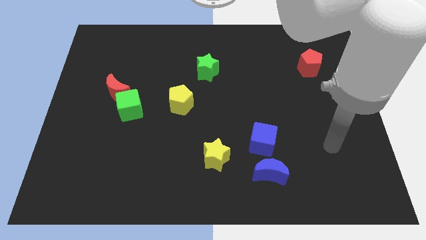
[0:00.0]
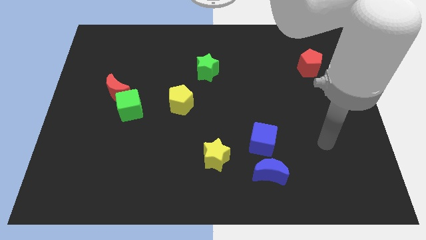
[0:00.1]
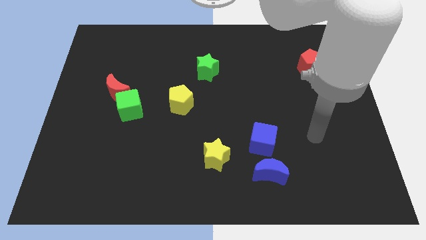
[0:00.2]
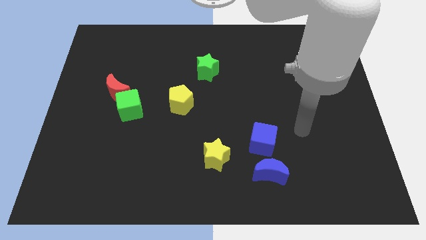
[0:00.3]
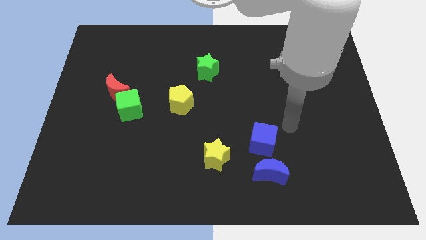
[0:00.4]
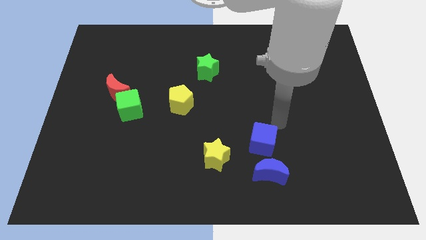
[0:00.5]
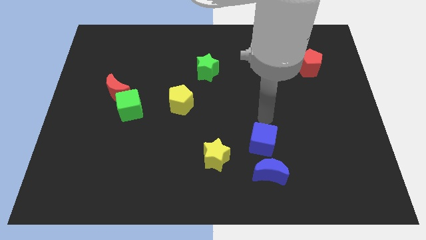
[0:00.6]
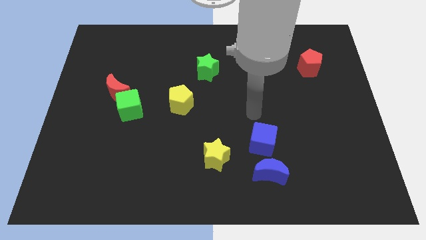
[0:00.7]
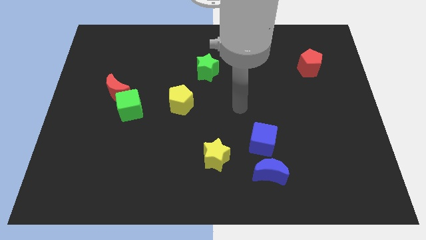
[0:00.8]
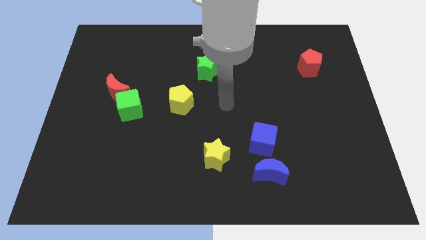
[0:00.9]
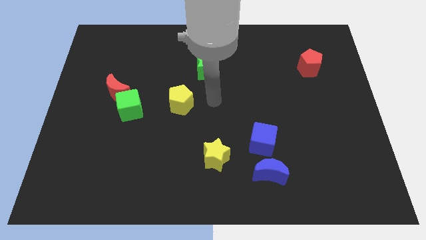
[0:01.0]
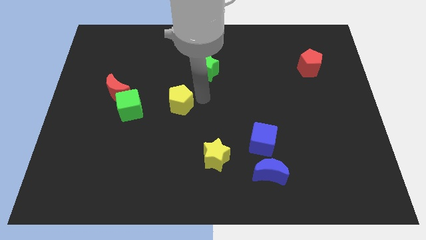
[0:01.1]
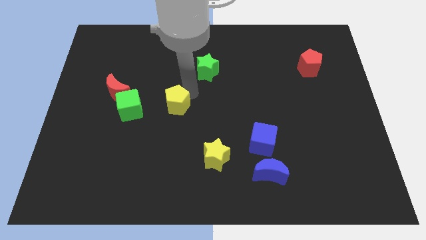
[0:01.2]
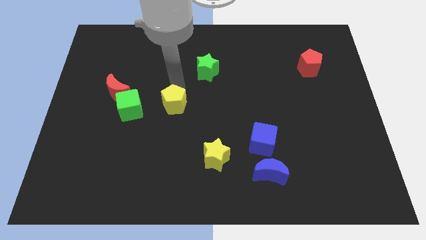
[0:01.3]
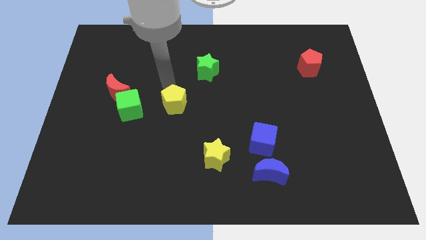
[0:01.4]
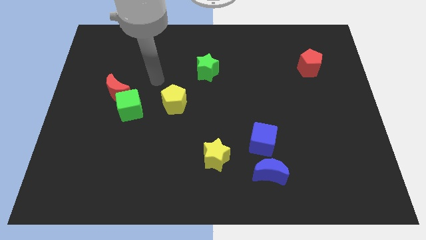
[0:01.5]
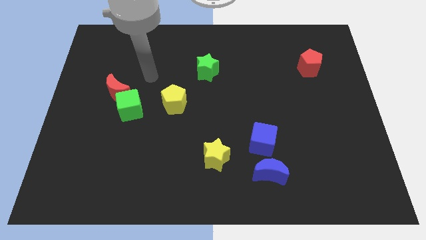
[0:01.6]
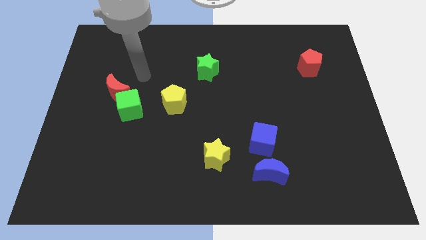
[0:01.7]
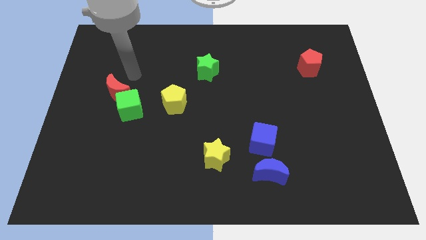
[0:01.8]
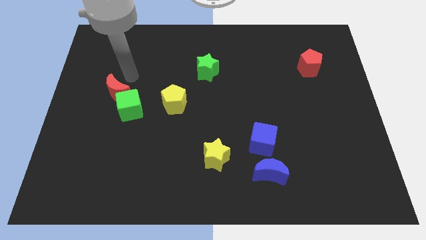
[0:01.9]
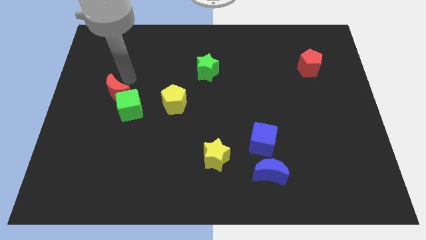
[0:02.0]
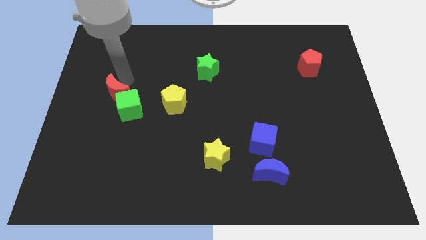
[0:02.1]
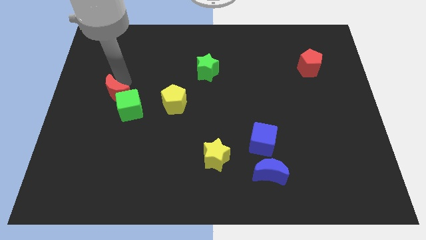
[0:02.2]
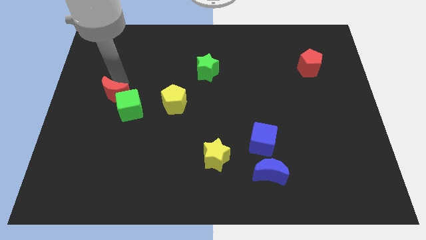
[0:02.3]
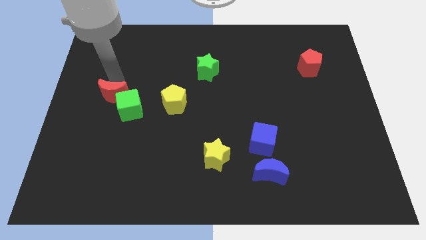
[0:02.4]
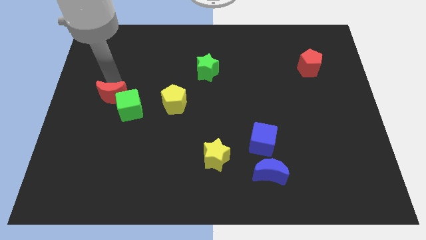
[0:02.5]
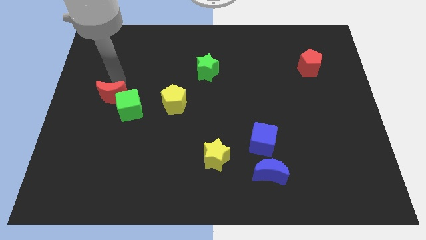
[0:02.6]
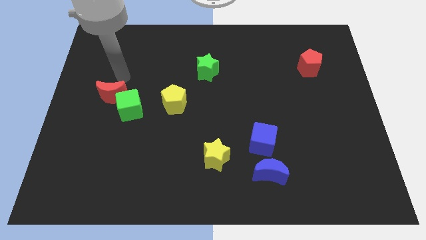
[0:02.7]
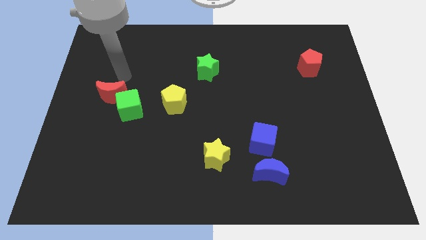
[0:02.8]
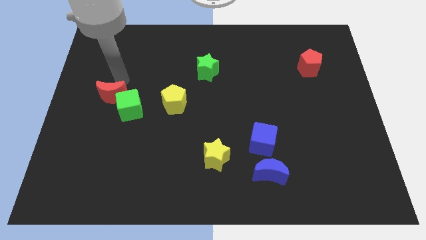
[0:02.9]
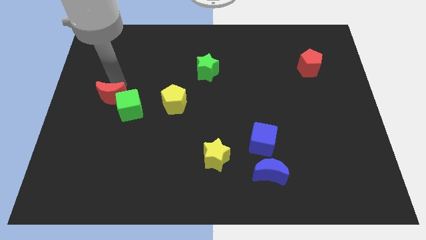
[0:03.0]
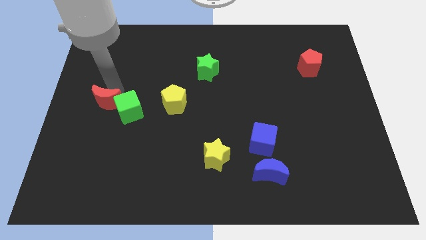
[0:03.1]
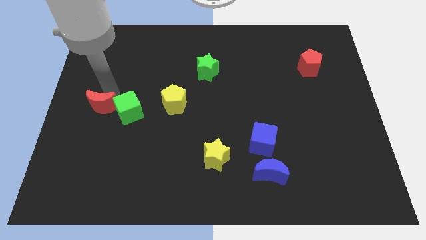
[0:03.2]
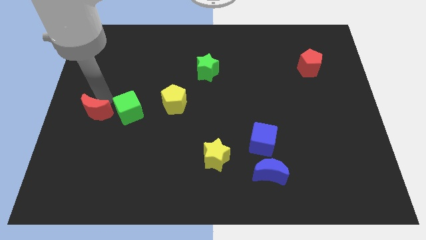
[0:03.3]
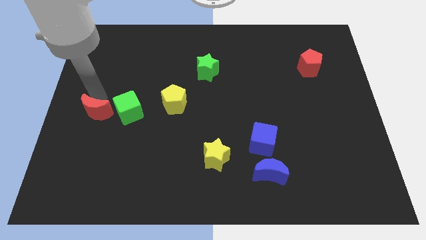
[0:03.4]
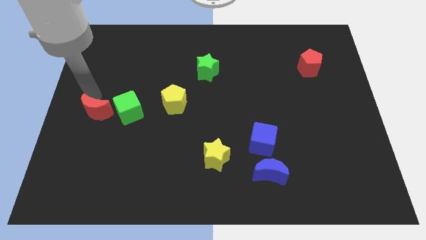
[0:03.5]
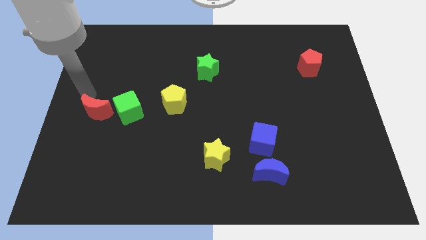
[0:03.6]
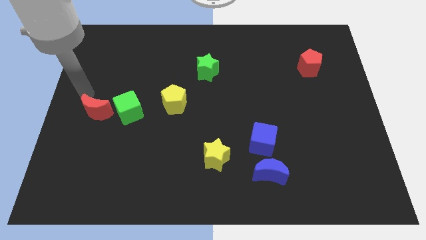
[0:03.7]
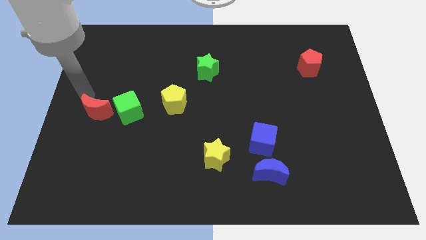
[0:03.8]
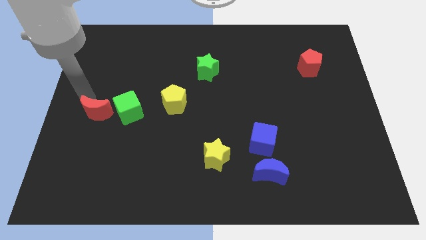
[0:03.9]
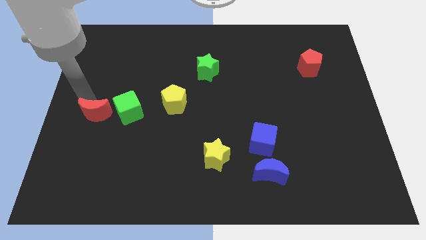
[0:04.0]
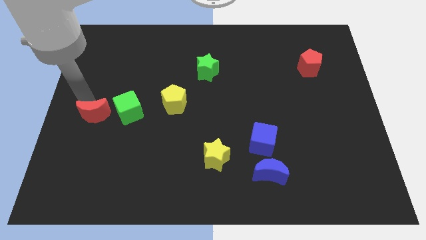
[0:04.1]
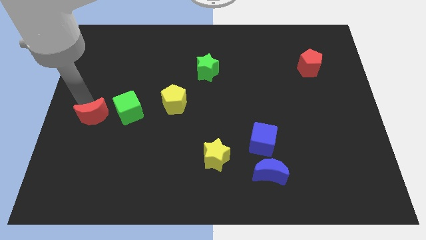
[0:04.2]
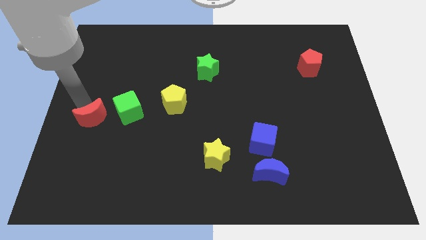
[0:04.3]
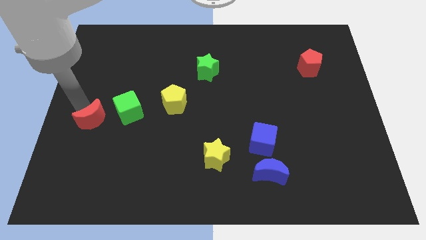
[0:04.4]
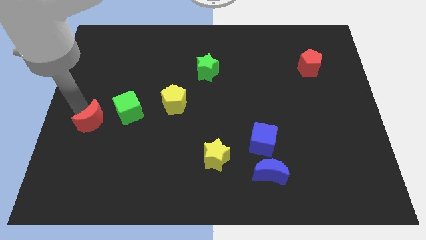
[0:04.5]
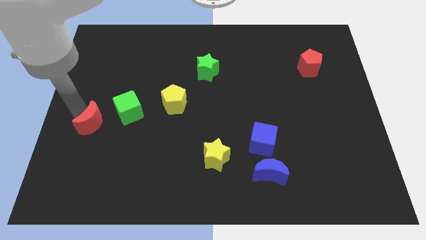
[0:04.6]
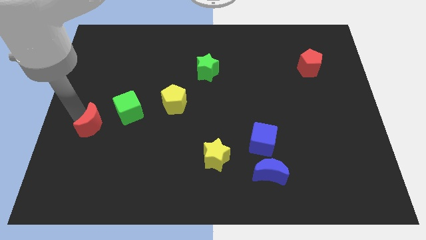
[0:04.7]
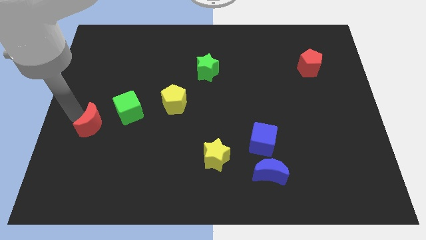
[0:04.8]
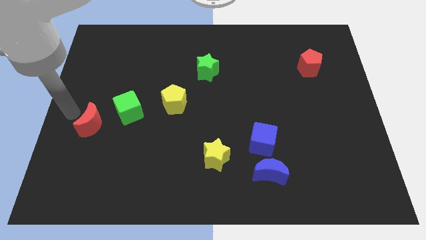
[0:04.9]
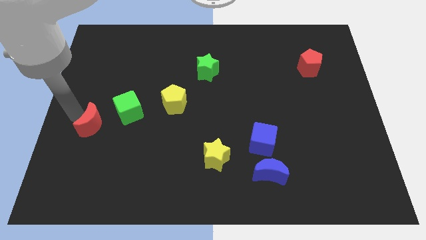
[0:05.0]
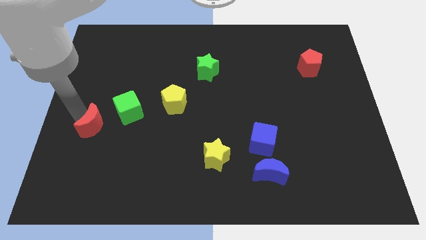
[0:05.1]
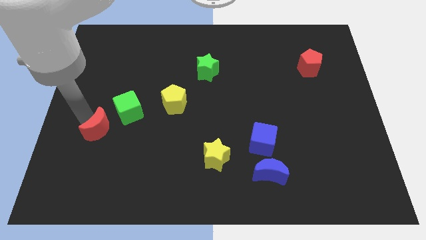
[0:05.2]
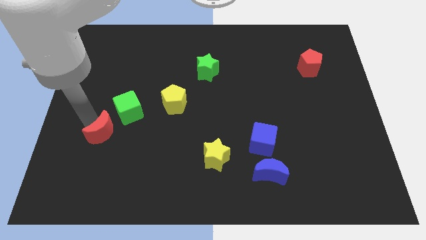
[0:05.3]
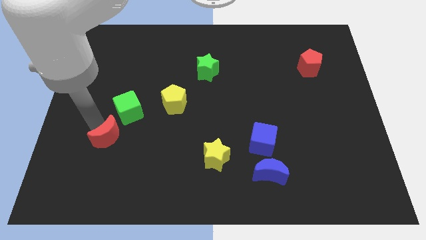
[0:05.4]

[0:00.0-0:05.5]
slide the red moon to the bottom side of the green cube

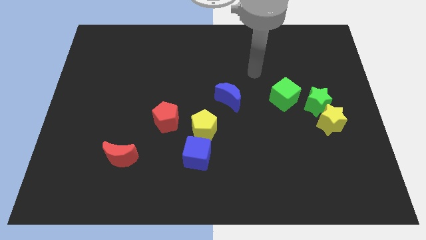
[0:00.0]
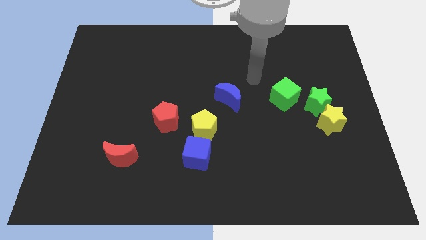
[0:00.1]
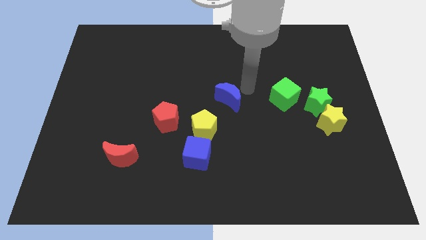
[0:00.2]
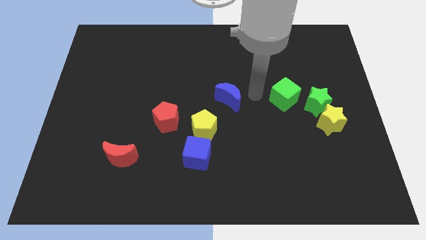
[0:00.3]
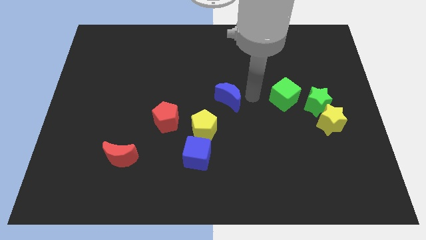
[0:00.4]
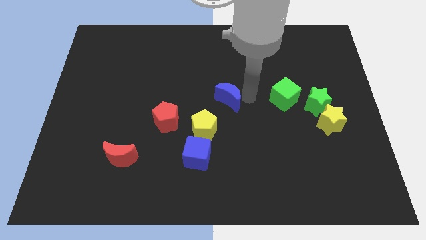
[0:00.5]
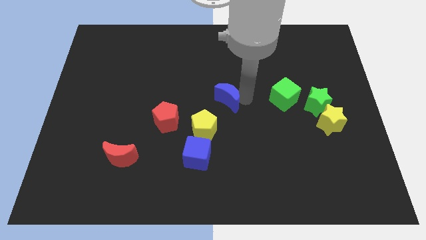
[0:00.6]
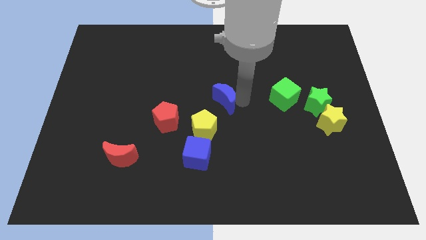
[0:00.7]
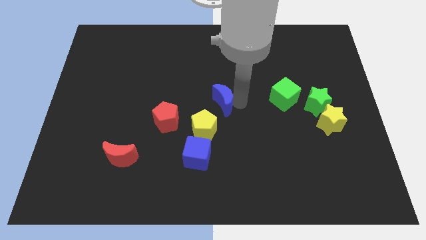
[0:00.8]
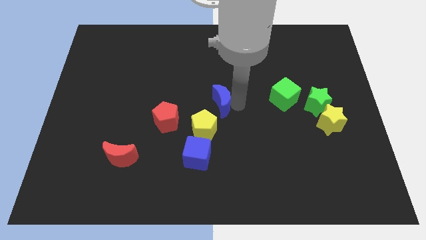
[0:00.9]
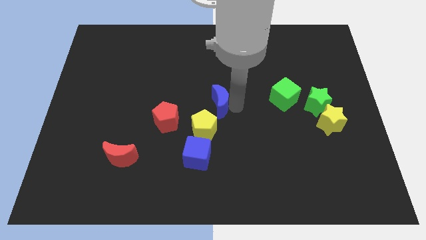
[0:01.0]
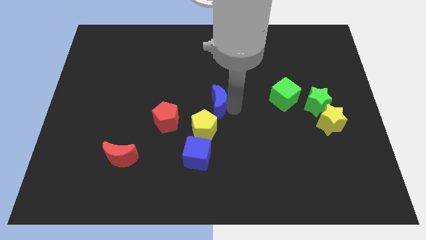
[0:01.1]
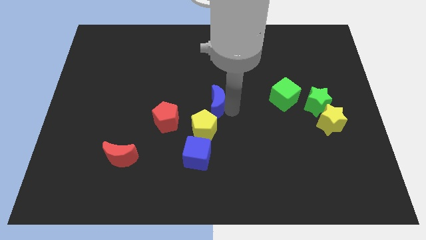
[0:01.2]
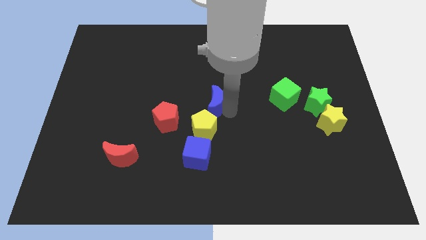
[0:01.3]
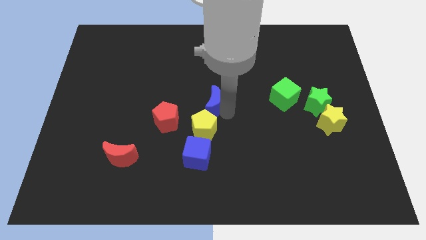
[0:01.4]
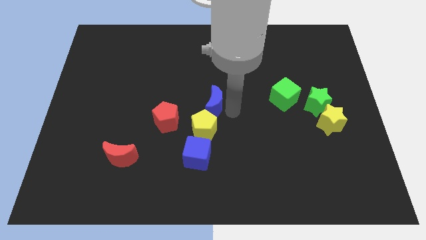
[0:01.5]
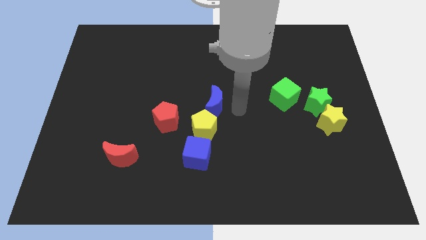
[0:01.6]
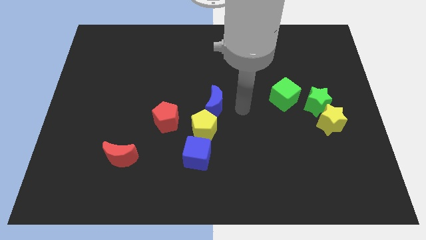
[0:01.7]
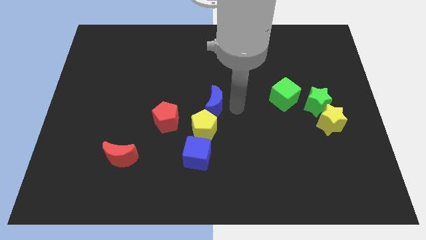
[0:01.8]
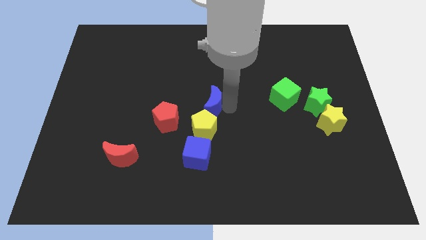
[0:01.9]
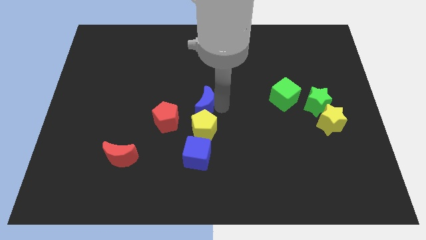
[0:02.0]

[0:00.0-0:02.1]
move the blue moon to the top right of the red pentagon
